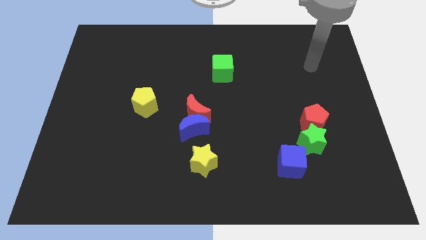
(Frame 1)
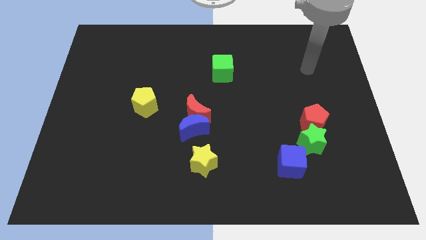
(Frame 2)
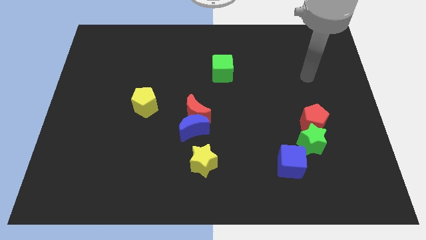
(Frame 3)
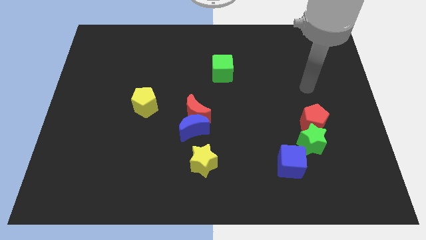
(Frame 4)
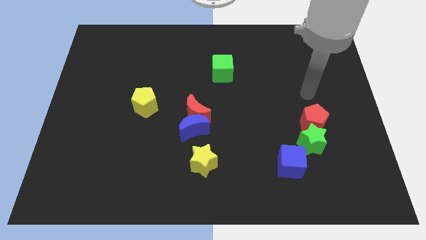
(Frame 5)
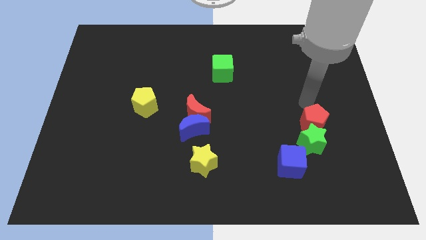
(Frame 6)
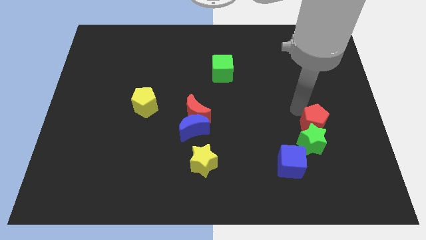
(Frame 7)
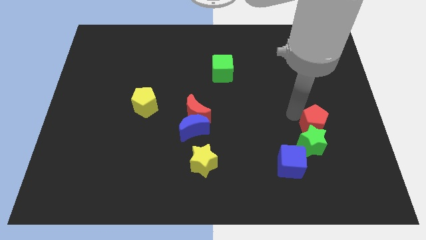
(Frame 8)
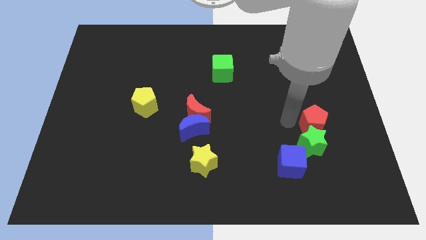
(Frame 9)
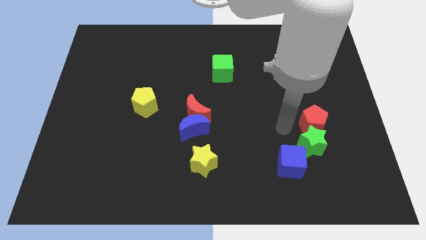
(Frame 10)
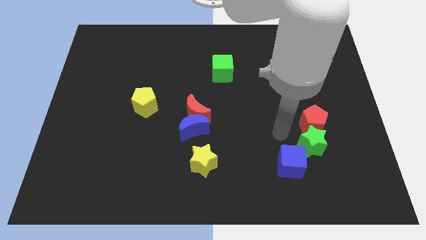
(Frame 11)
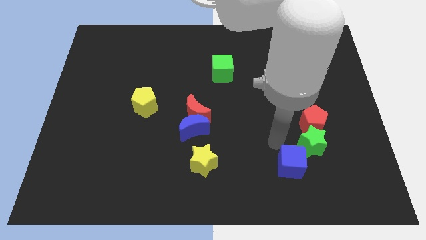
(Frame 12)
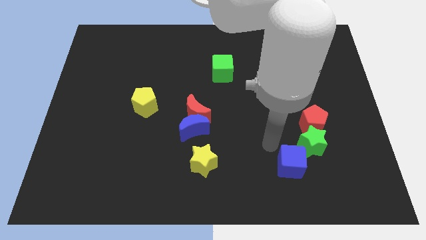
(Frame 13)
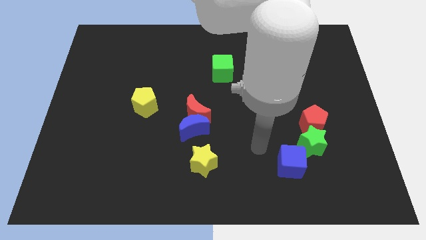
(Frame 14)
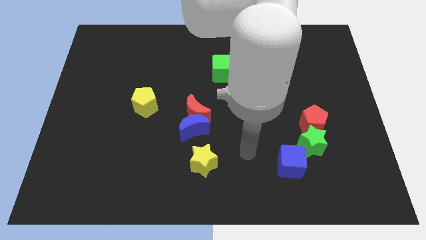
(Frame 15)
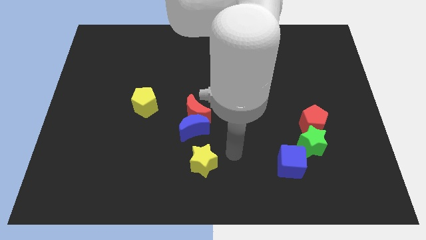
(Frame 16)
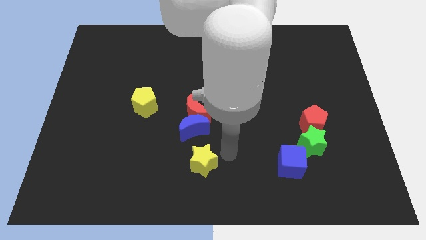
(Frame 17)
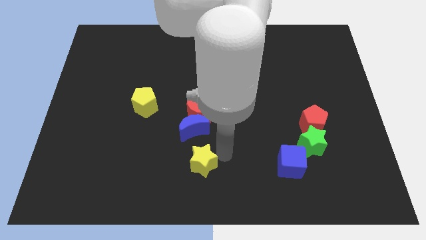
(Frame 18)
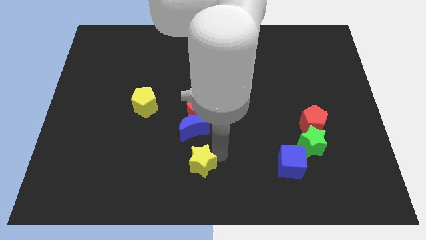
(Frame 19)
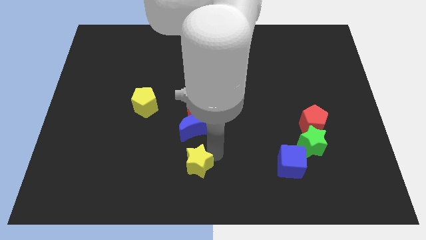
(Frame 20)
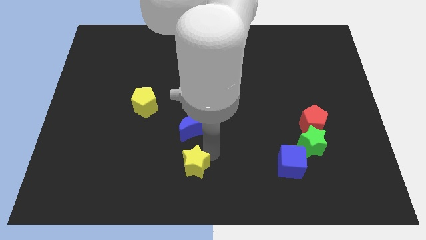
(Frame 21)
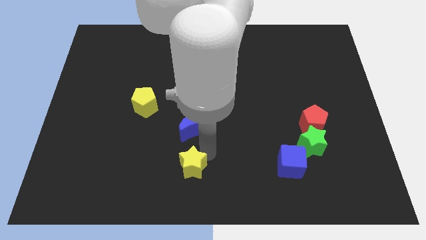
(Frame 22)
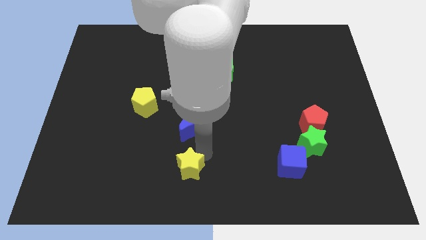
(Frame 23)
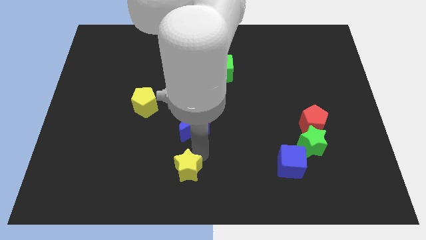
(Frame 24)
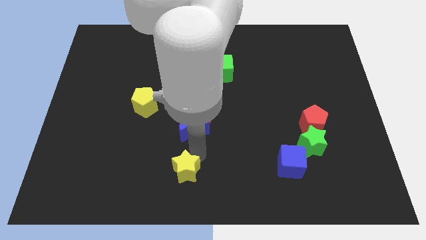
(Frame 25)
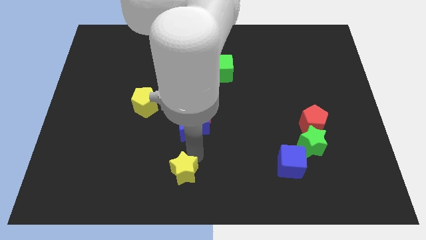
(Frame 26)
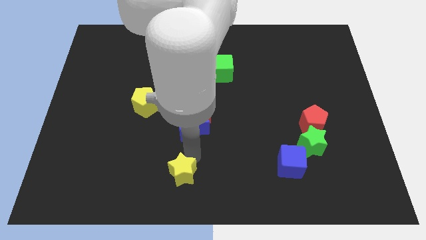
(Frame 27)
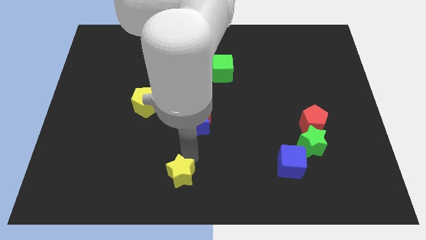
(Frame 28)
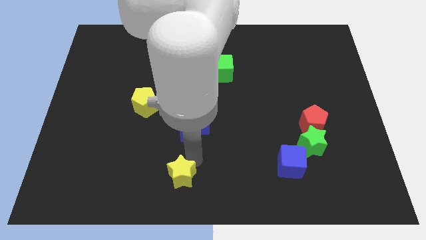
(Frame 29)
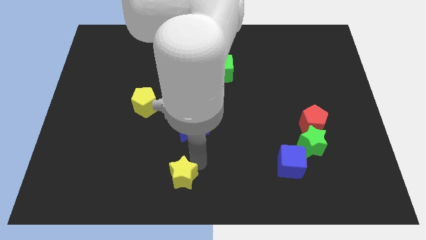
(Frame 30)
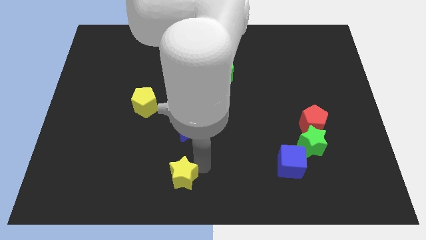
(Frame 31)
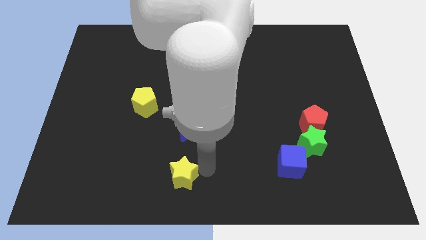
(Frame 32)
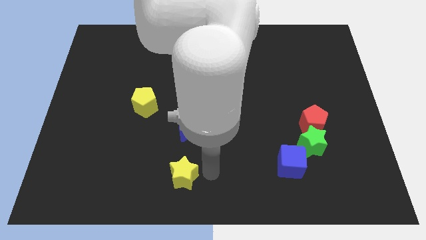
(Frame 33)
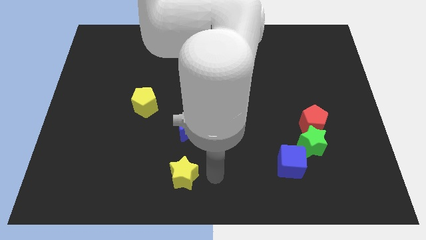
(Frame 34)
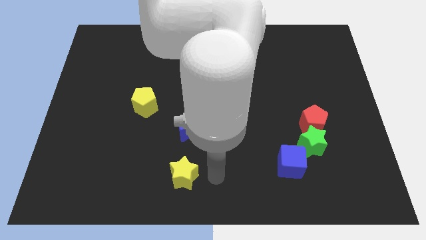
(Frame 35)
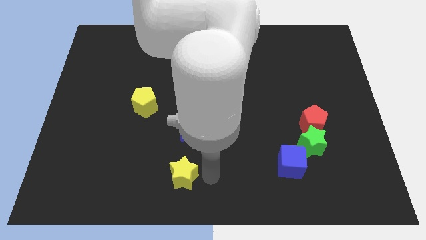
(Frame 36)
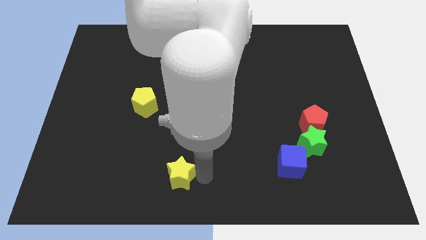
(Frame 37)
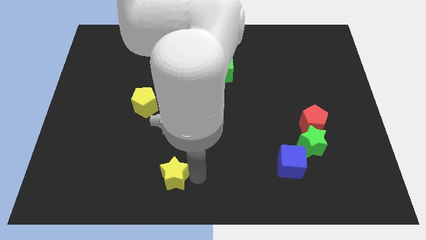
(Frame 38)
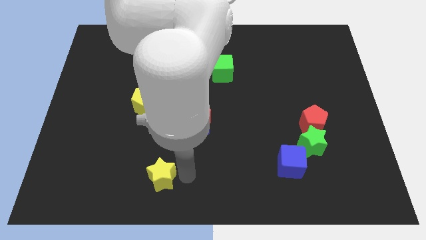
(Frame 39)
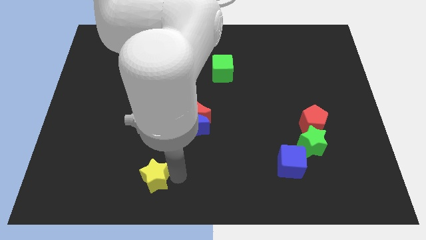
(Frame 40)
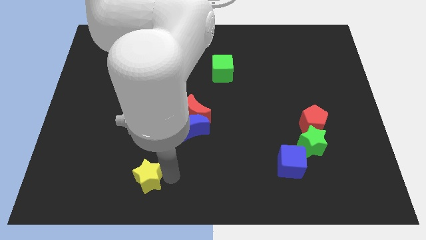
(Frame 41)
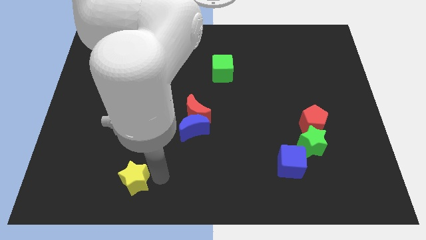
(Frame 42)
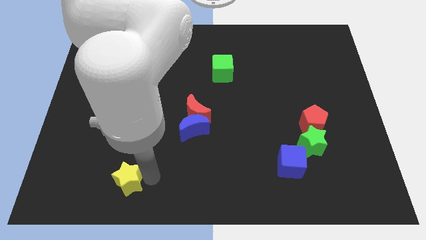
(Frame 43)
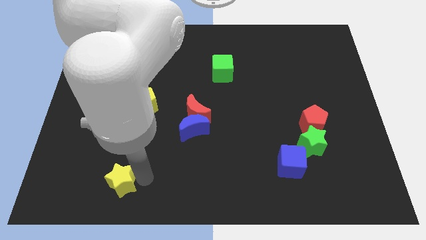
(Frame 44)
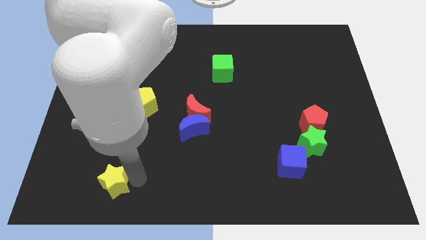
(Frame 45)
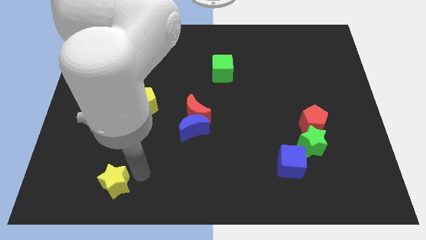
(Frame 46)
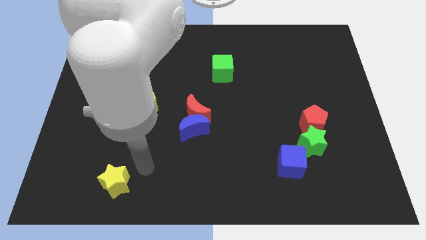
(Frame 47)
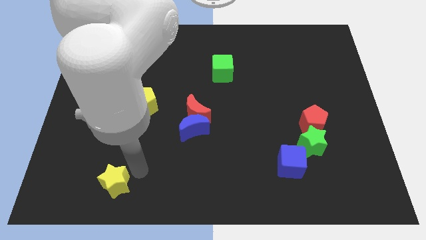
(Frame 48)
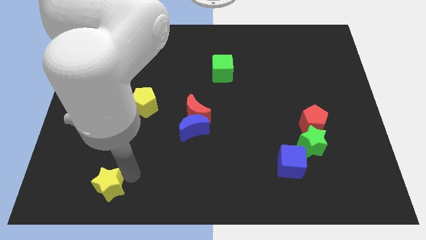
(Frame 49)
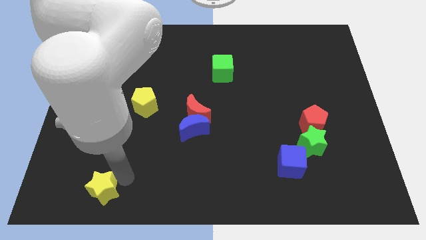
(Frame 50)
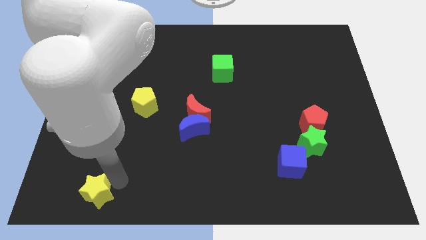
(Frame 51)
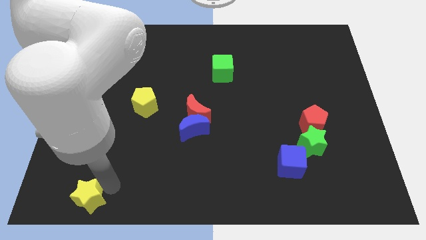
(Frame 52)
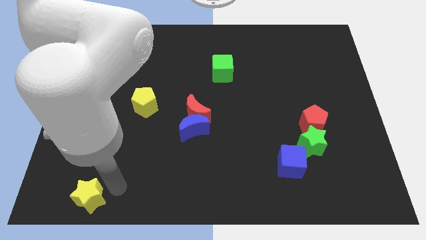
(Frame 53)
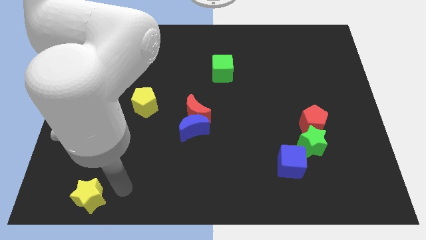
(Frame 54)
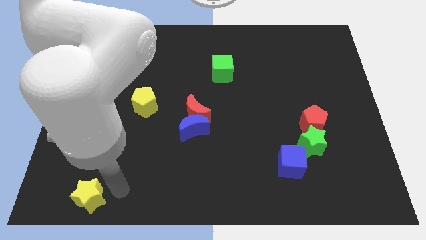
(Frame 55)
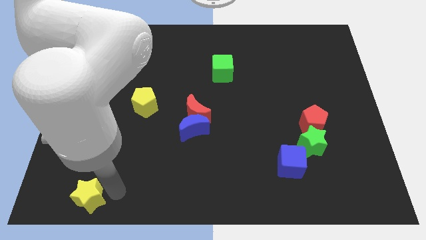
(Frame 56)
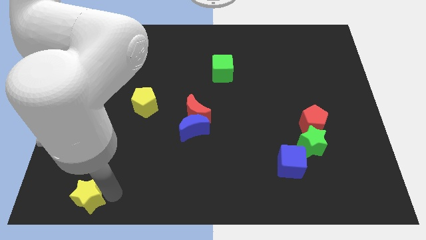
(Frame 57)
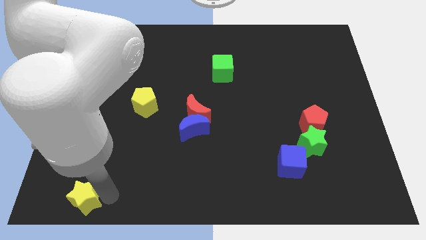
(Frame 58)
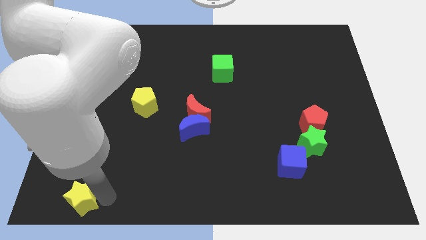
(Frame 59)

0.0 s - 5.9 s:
slide the yellow star to the lower left corner
